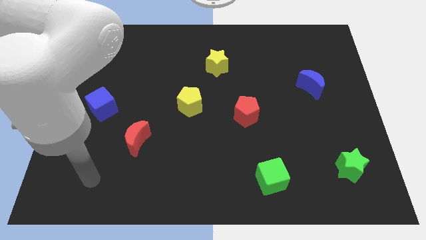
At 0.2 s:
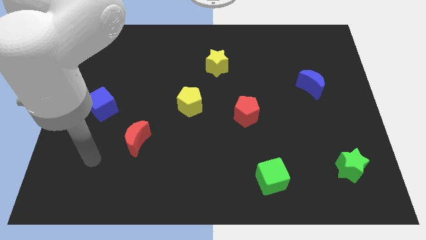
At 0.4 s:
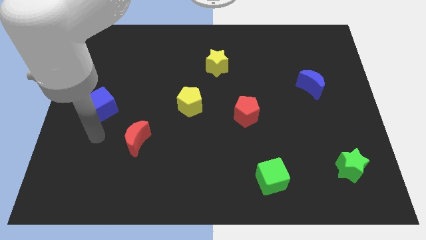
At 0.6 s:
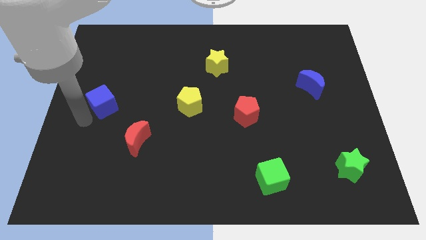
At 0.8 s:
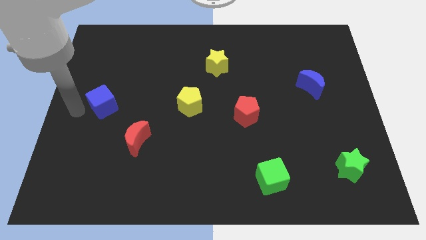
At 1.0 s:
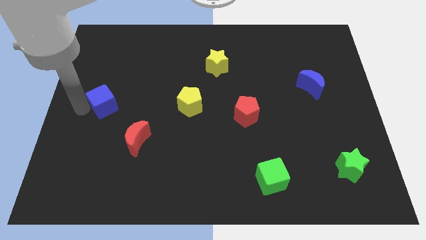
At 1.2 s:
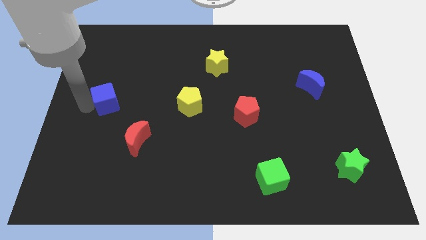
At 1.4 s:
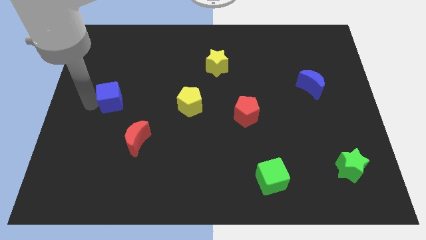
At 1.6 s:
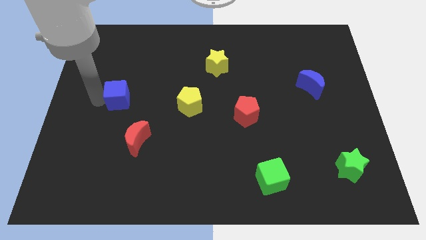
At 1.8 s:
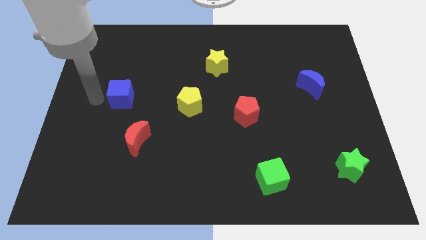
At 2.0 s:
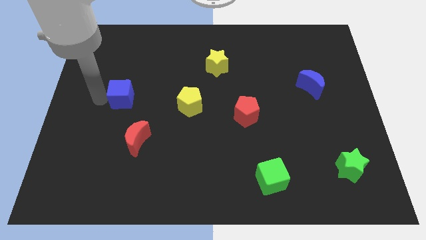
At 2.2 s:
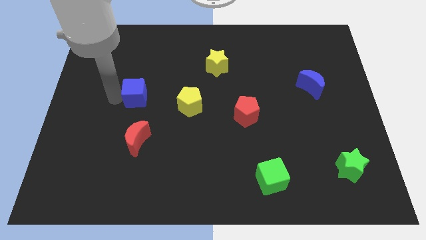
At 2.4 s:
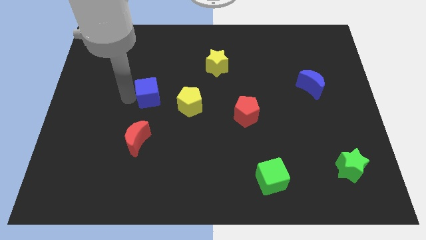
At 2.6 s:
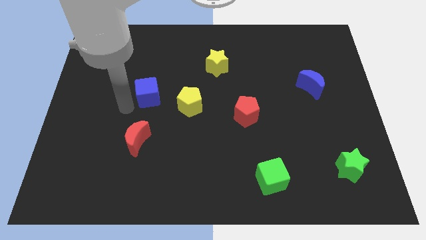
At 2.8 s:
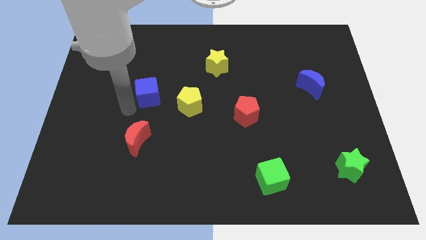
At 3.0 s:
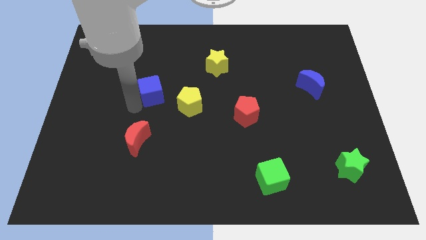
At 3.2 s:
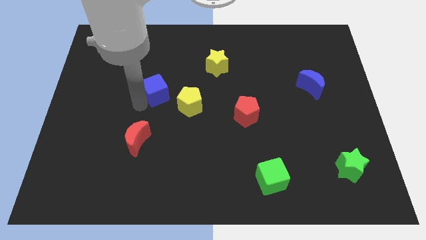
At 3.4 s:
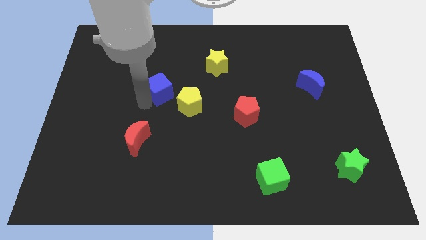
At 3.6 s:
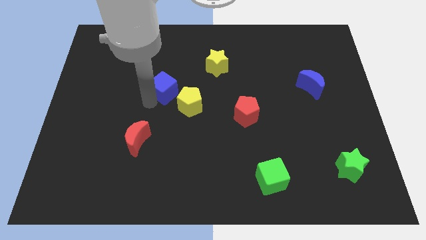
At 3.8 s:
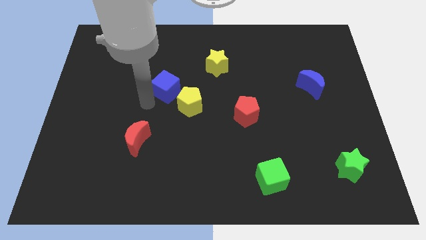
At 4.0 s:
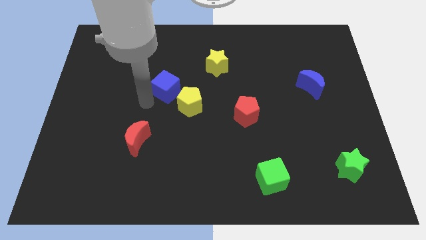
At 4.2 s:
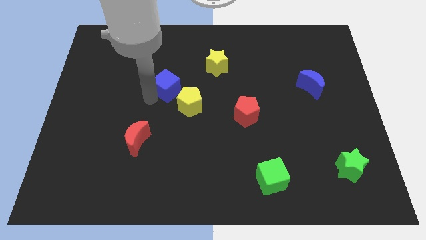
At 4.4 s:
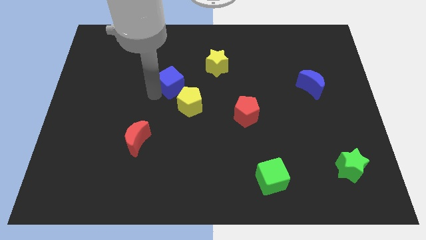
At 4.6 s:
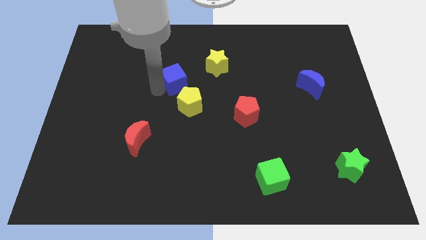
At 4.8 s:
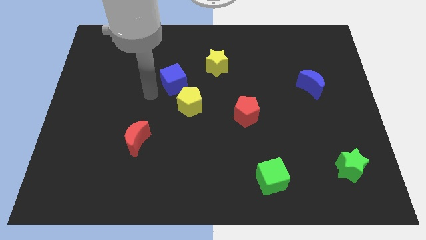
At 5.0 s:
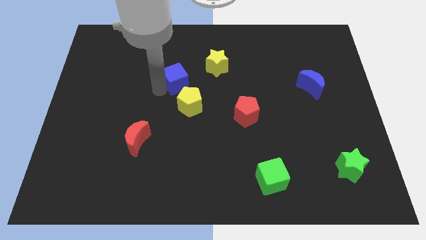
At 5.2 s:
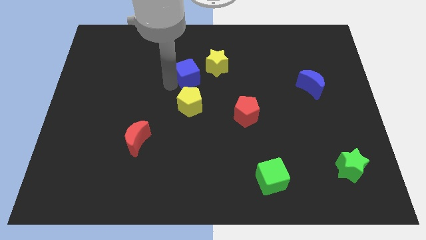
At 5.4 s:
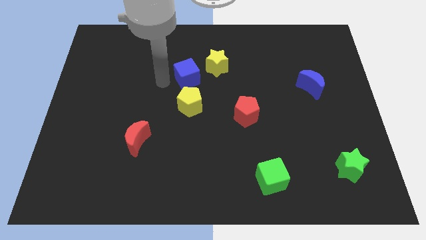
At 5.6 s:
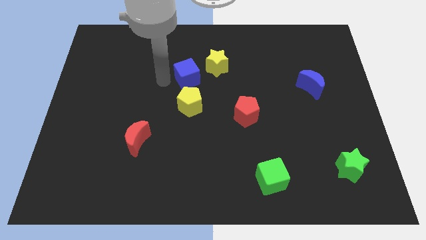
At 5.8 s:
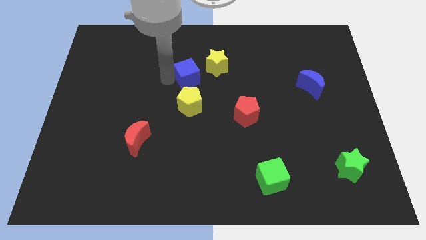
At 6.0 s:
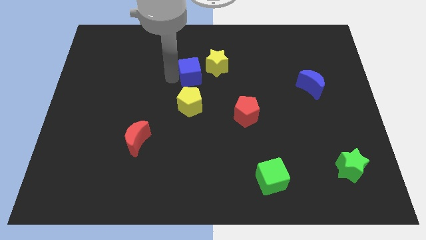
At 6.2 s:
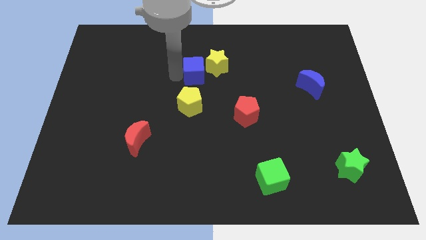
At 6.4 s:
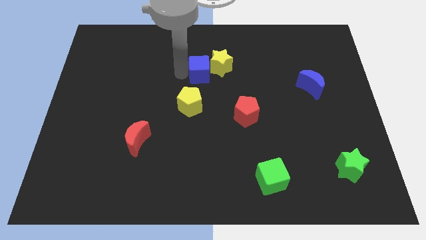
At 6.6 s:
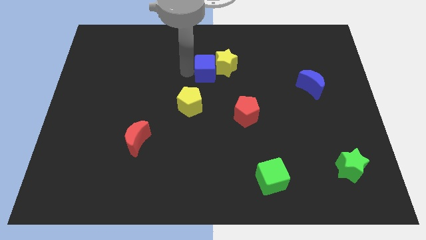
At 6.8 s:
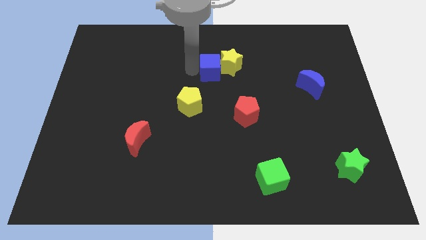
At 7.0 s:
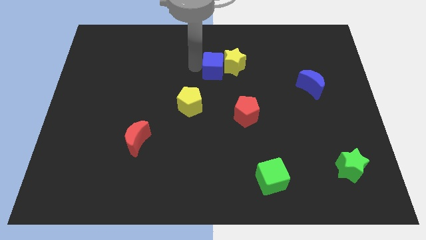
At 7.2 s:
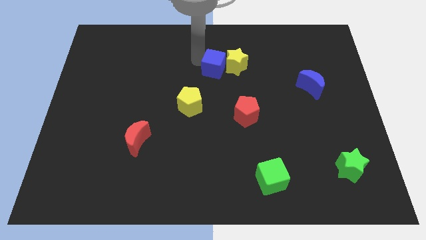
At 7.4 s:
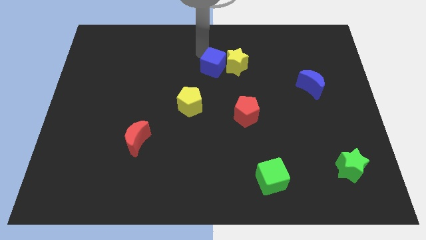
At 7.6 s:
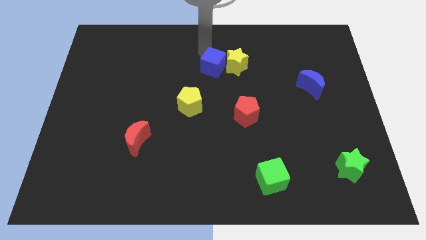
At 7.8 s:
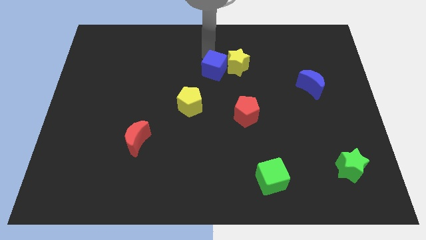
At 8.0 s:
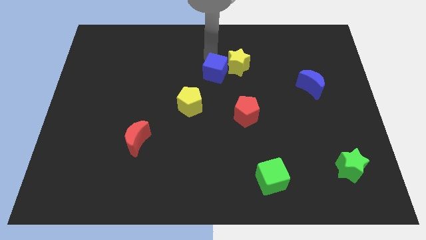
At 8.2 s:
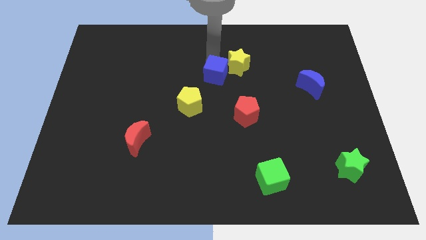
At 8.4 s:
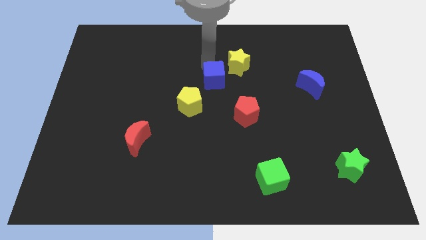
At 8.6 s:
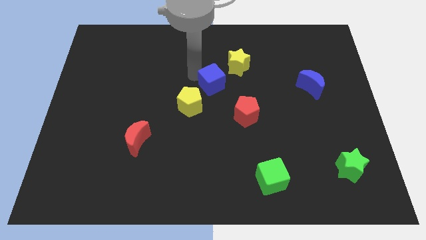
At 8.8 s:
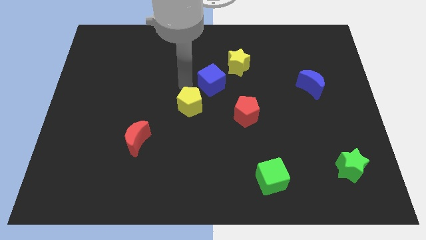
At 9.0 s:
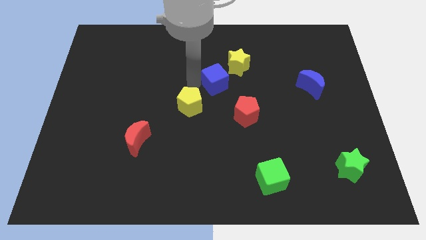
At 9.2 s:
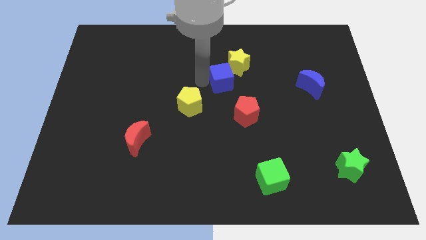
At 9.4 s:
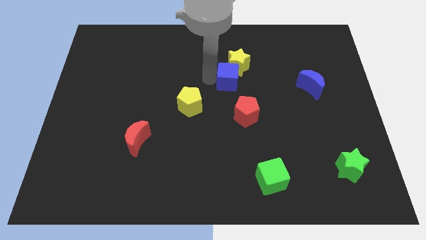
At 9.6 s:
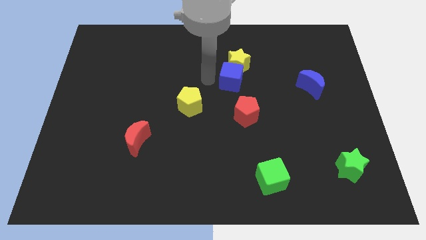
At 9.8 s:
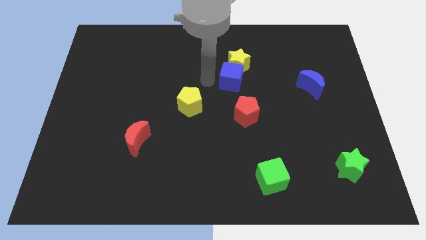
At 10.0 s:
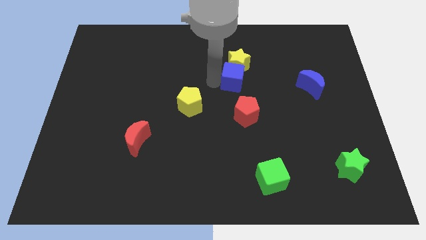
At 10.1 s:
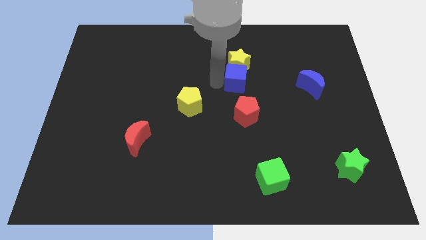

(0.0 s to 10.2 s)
push the blue cube to the bottom right side of the yellow star

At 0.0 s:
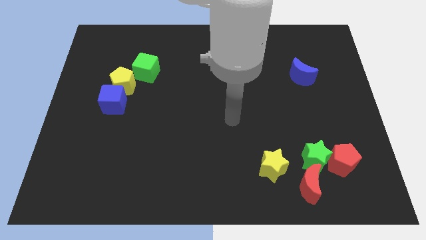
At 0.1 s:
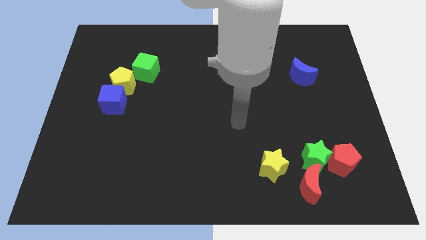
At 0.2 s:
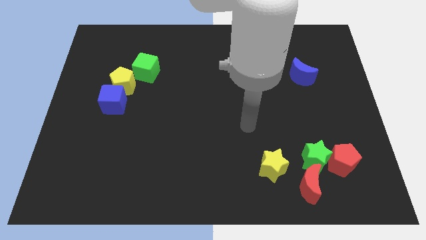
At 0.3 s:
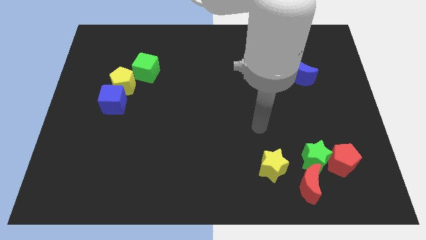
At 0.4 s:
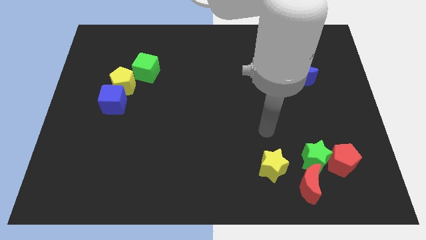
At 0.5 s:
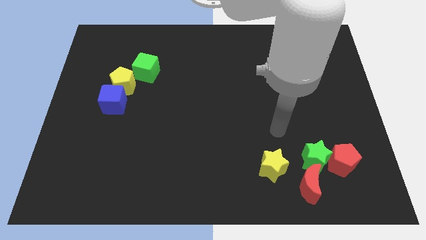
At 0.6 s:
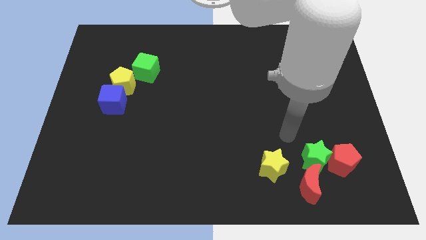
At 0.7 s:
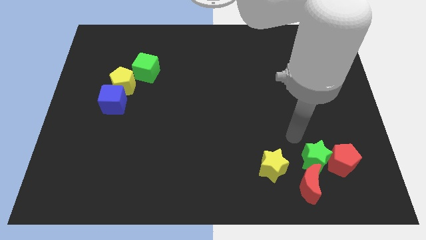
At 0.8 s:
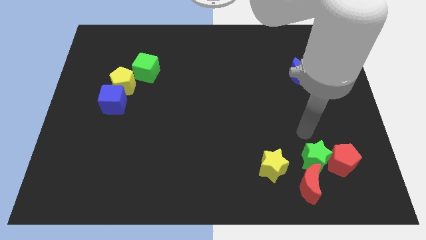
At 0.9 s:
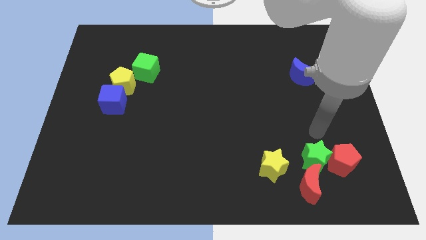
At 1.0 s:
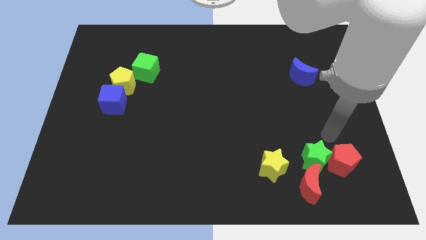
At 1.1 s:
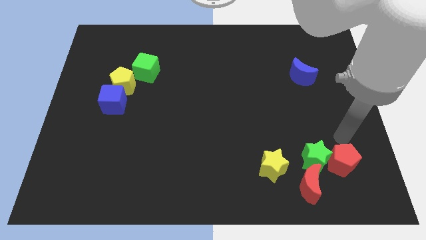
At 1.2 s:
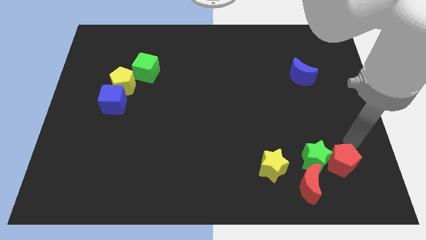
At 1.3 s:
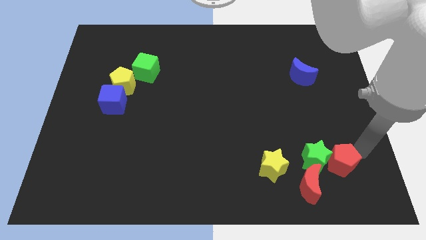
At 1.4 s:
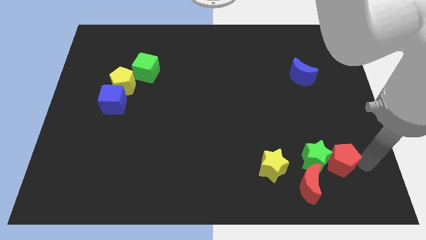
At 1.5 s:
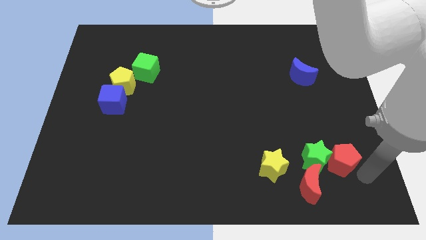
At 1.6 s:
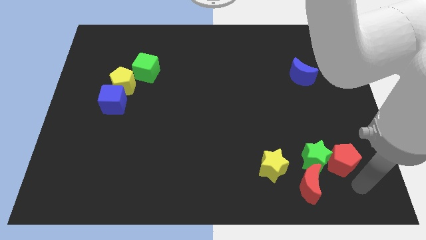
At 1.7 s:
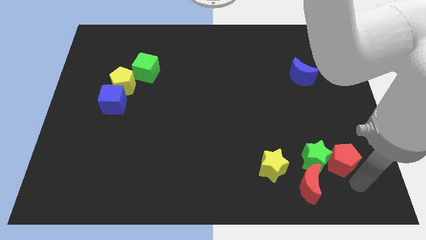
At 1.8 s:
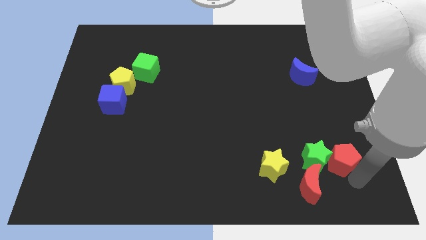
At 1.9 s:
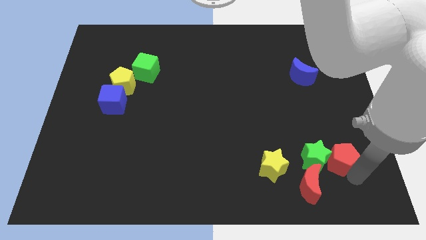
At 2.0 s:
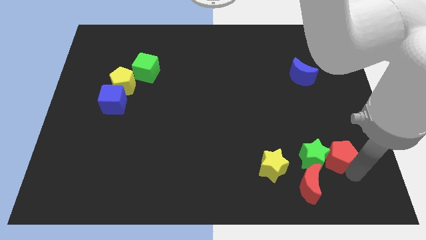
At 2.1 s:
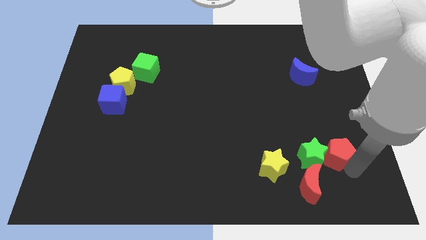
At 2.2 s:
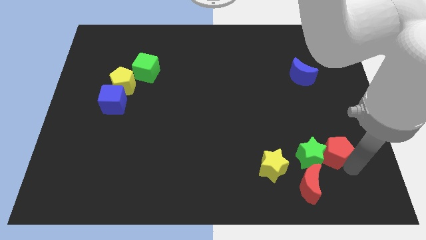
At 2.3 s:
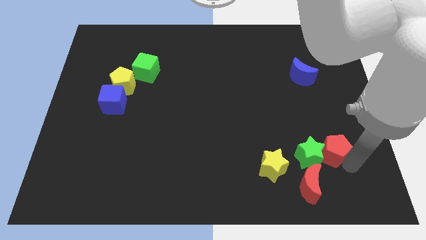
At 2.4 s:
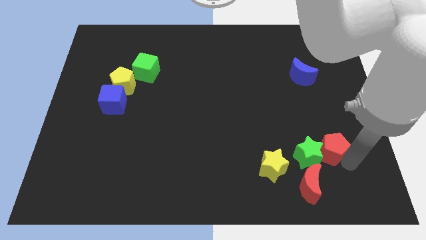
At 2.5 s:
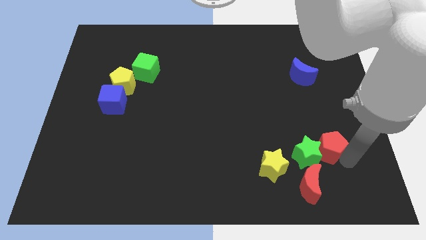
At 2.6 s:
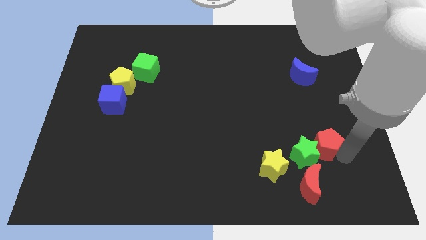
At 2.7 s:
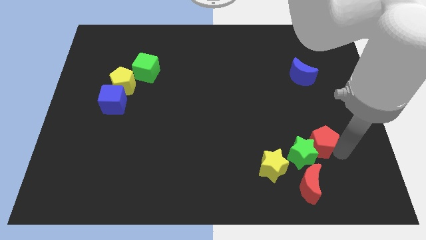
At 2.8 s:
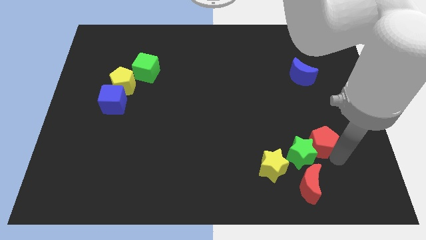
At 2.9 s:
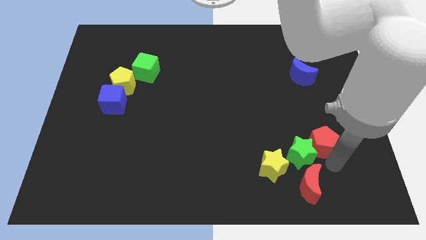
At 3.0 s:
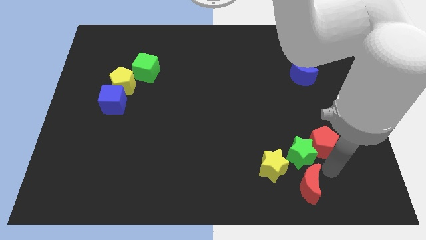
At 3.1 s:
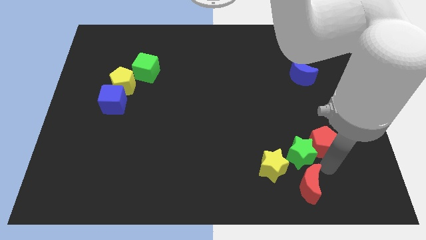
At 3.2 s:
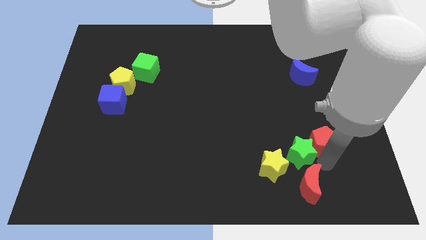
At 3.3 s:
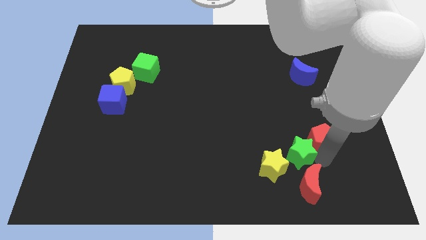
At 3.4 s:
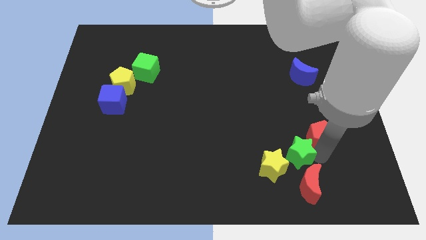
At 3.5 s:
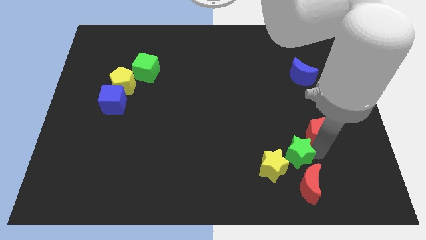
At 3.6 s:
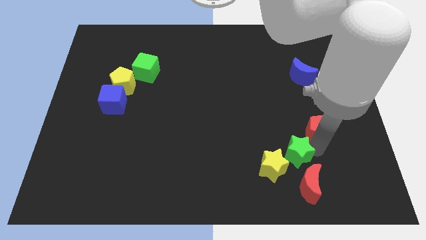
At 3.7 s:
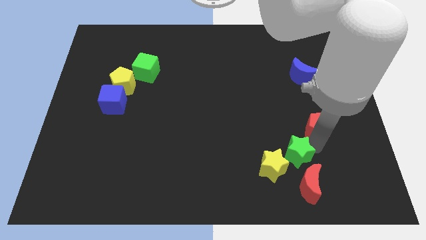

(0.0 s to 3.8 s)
move the red pentagon below the blue moon
